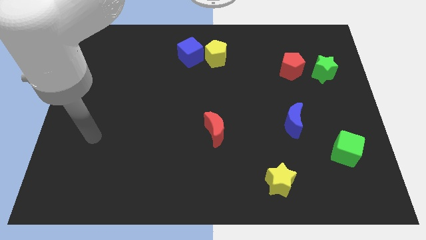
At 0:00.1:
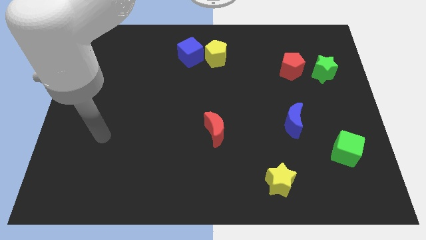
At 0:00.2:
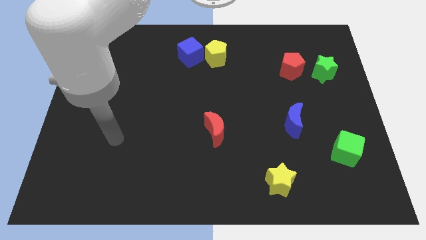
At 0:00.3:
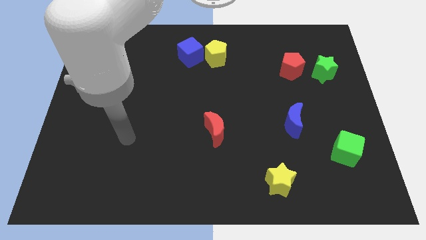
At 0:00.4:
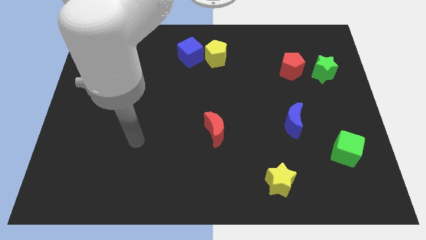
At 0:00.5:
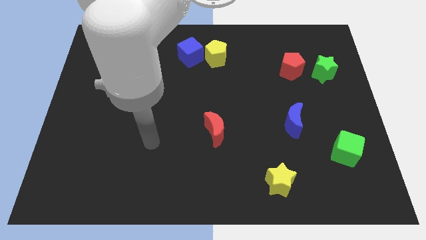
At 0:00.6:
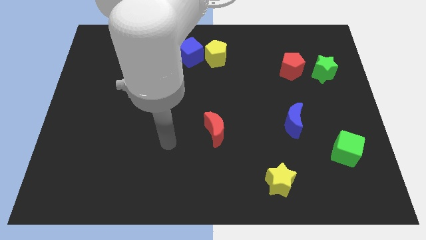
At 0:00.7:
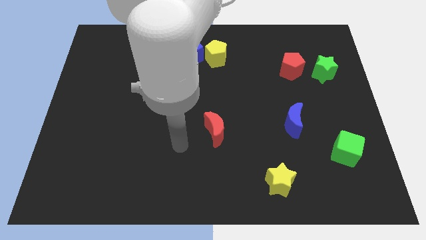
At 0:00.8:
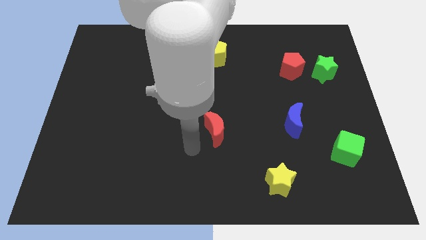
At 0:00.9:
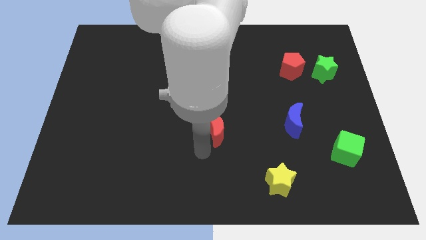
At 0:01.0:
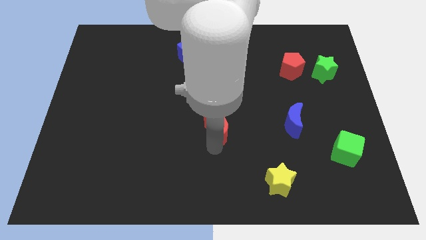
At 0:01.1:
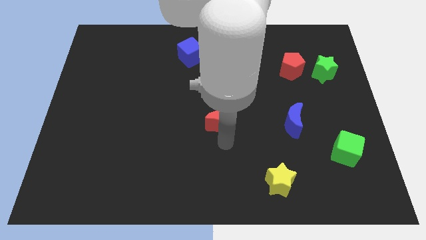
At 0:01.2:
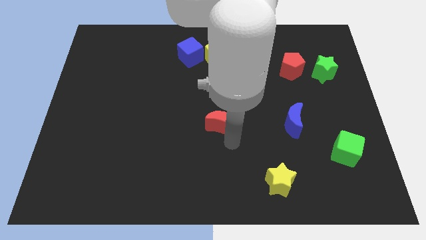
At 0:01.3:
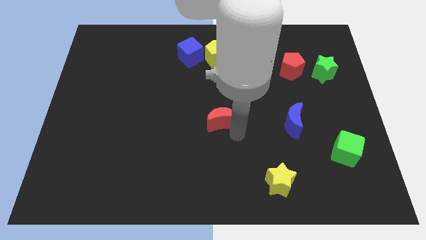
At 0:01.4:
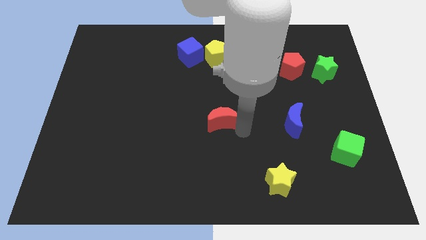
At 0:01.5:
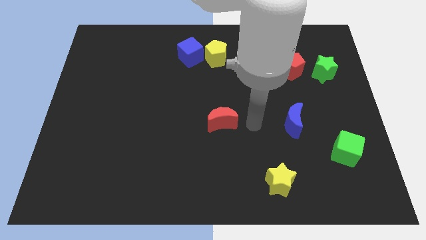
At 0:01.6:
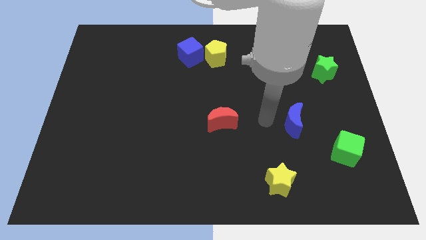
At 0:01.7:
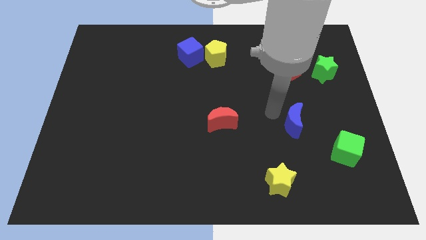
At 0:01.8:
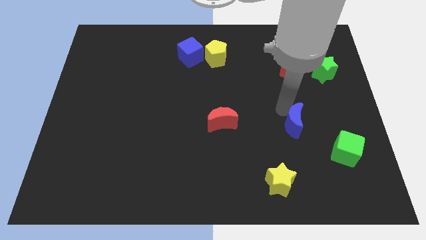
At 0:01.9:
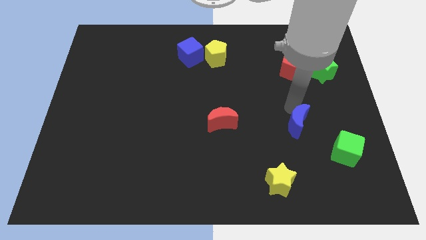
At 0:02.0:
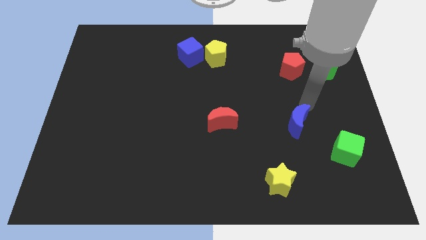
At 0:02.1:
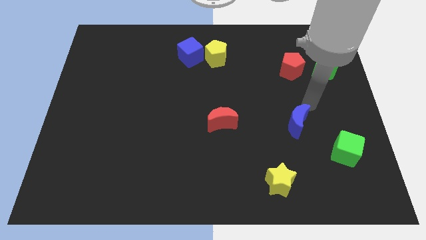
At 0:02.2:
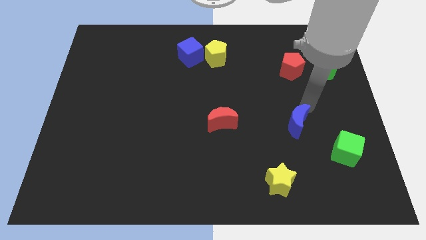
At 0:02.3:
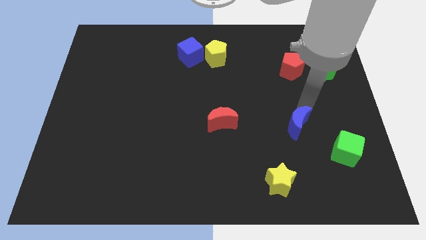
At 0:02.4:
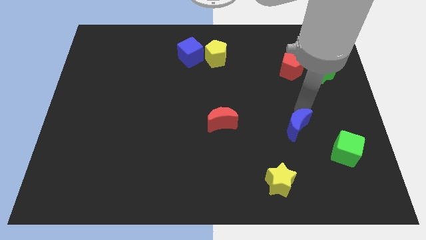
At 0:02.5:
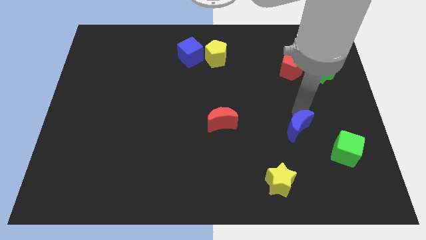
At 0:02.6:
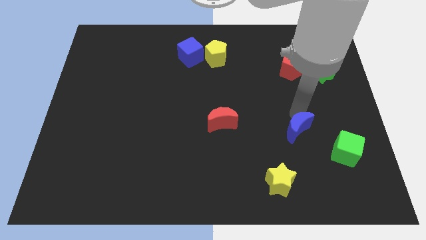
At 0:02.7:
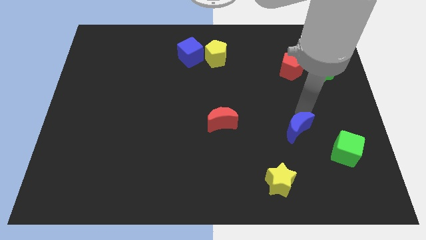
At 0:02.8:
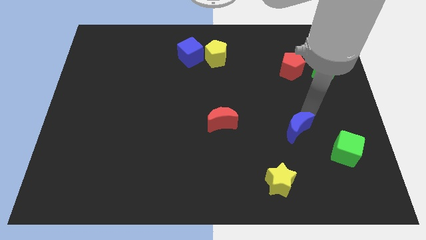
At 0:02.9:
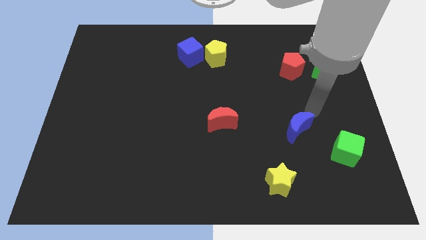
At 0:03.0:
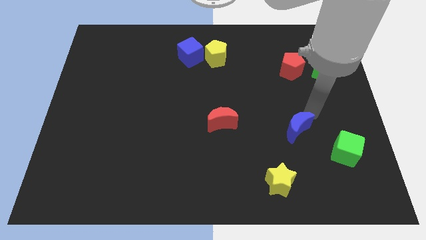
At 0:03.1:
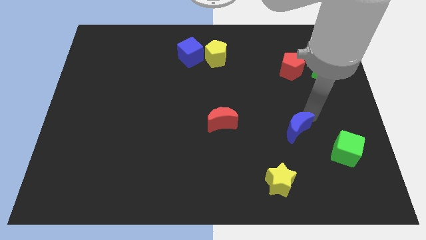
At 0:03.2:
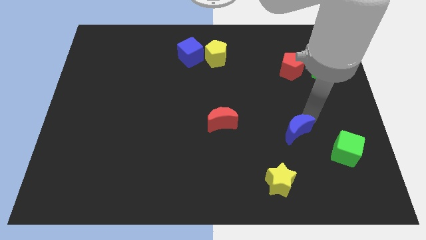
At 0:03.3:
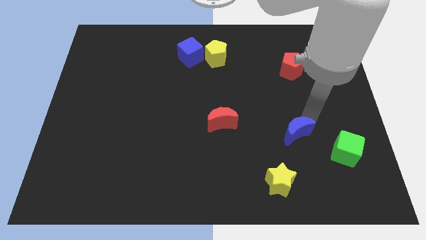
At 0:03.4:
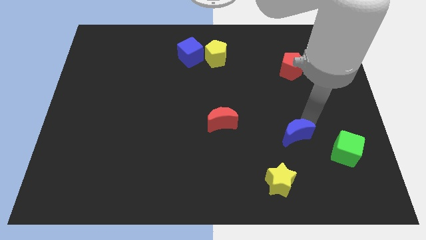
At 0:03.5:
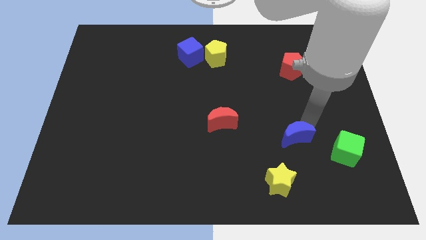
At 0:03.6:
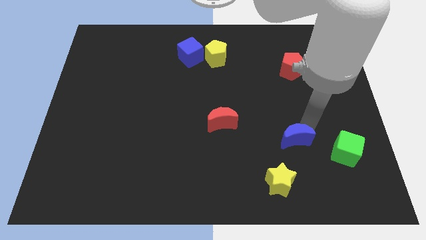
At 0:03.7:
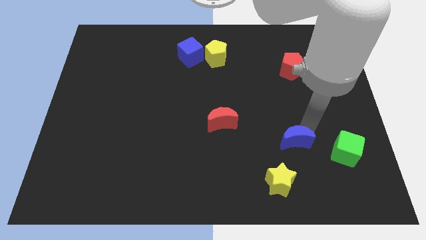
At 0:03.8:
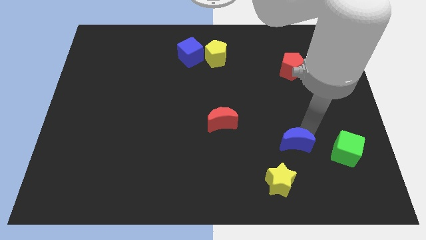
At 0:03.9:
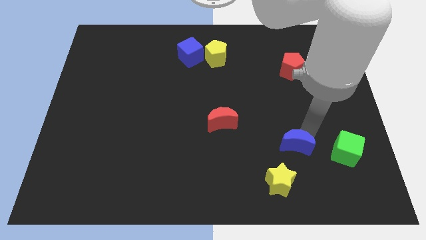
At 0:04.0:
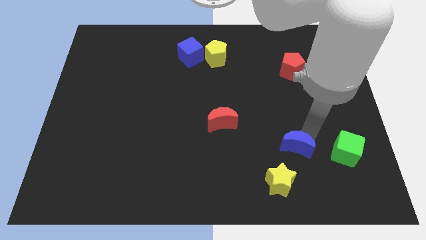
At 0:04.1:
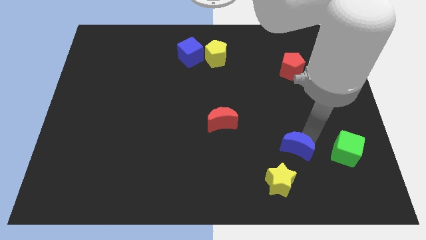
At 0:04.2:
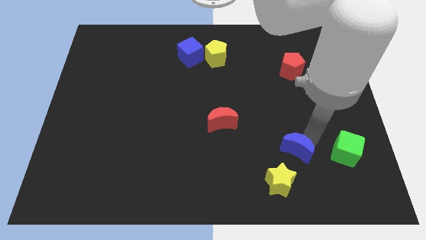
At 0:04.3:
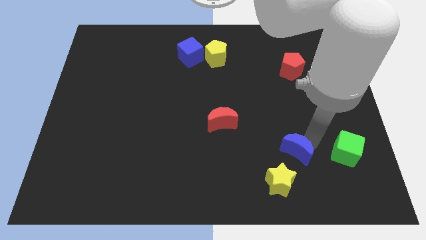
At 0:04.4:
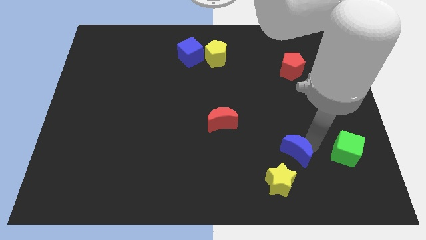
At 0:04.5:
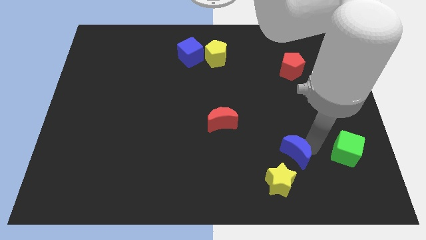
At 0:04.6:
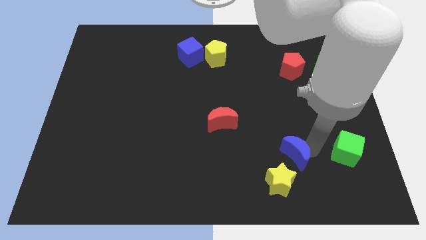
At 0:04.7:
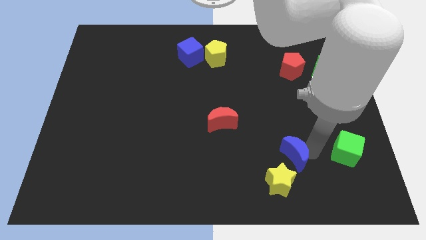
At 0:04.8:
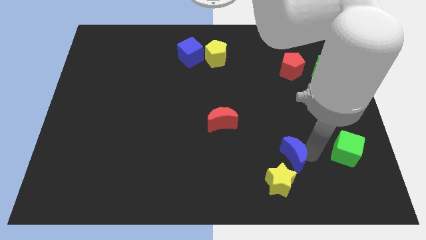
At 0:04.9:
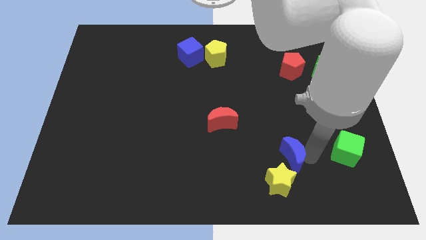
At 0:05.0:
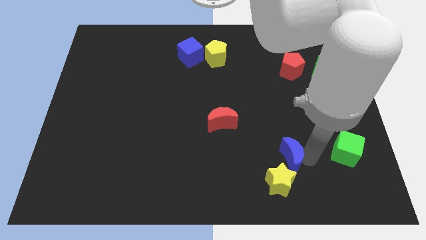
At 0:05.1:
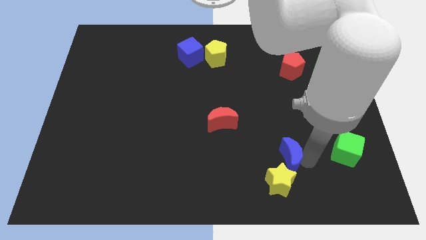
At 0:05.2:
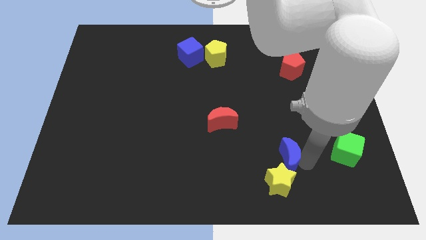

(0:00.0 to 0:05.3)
push the blue moon a bit diagonally down and to the left

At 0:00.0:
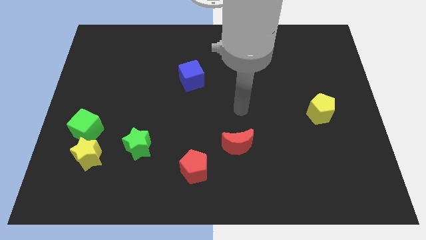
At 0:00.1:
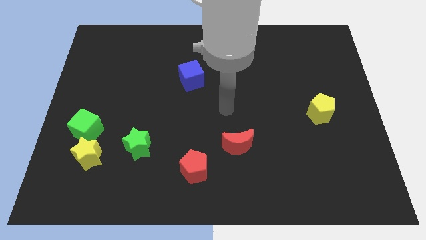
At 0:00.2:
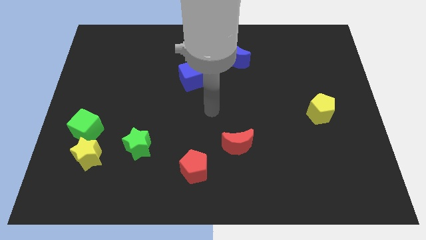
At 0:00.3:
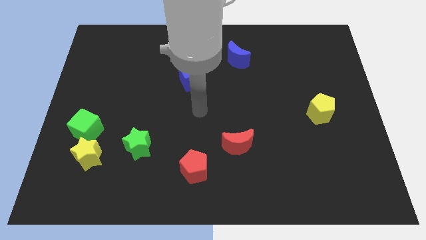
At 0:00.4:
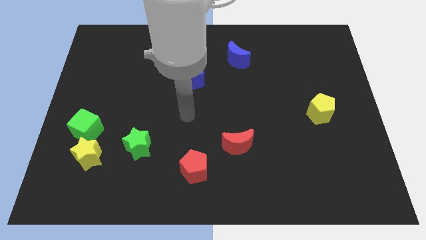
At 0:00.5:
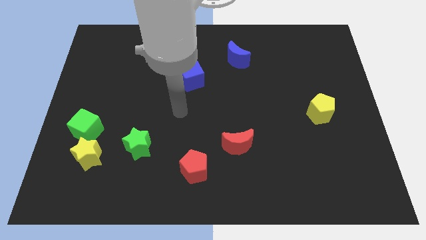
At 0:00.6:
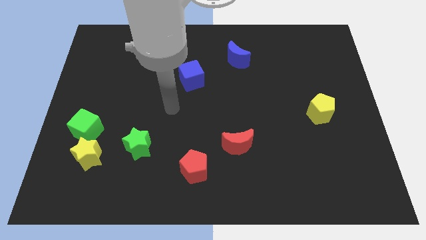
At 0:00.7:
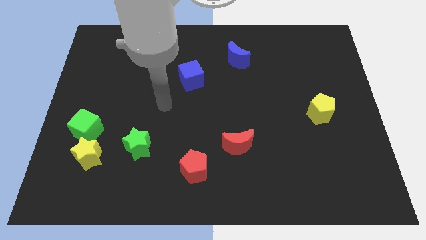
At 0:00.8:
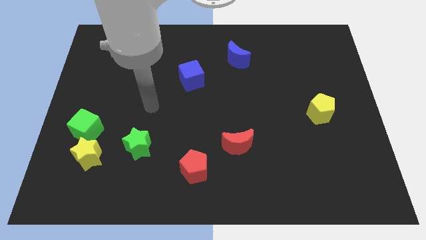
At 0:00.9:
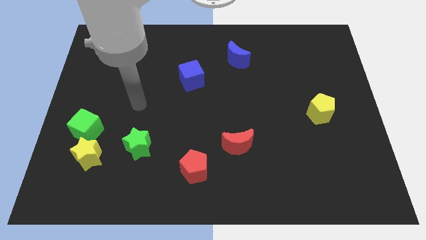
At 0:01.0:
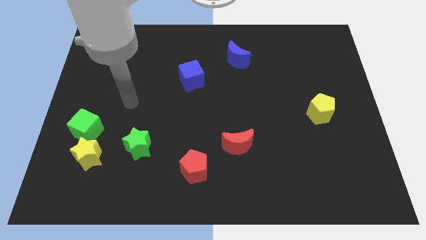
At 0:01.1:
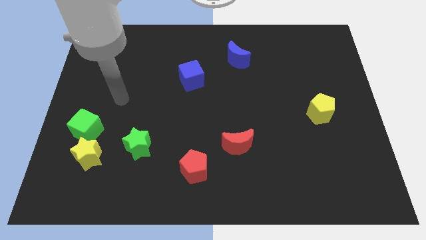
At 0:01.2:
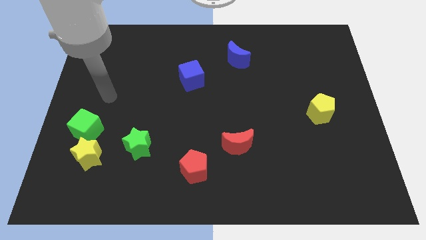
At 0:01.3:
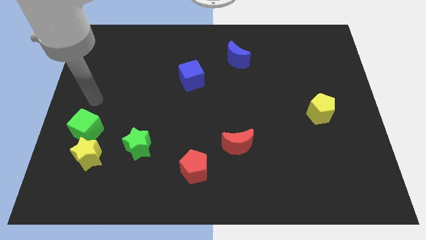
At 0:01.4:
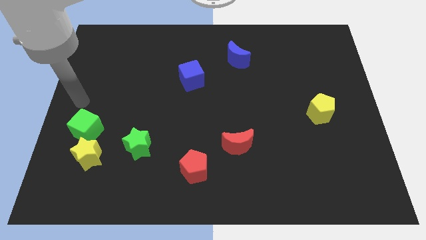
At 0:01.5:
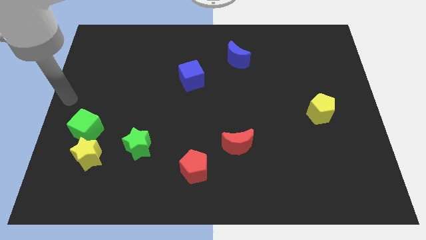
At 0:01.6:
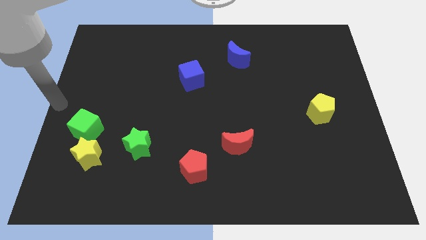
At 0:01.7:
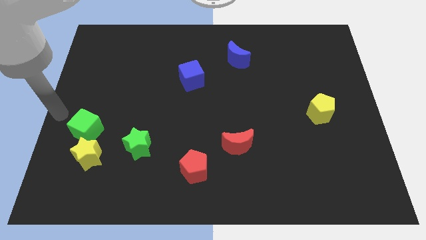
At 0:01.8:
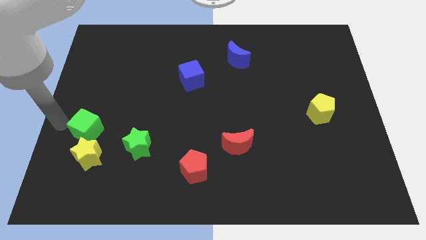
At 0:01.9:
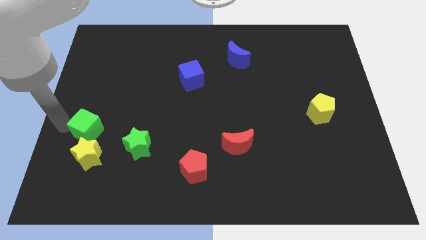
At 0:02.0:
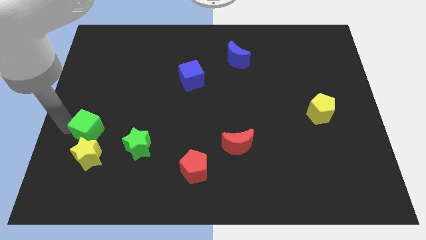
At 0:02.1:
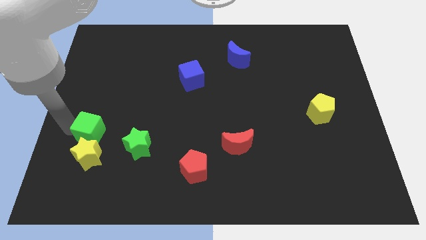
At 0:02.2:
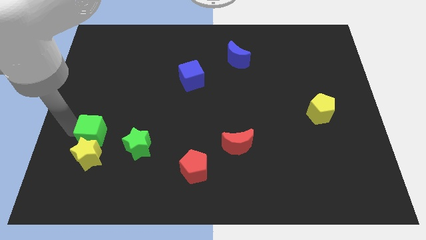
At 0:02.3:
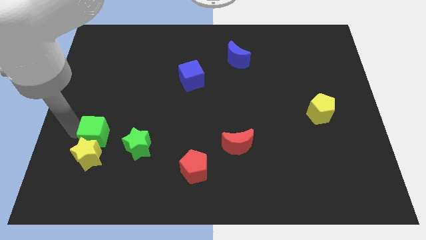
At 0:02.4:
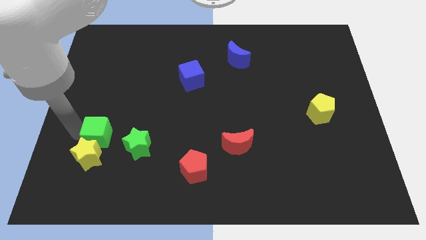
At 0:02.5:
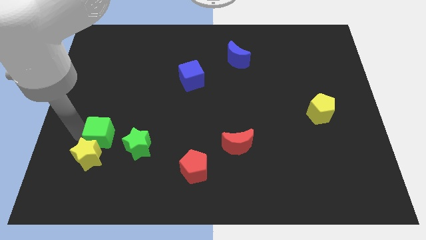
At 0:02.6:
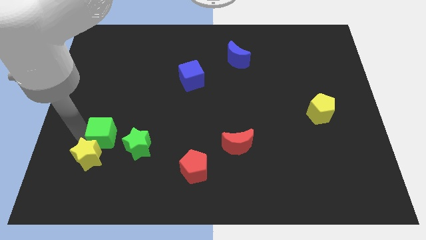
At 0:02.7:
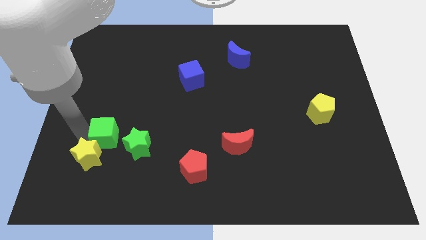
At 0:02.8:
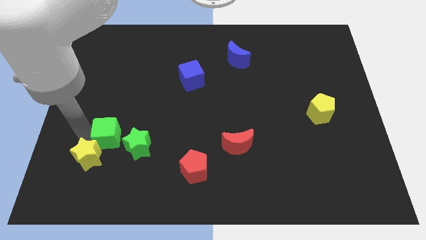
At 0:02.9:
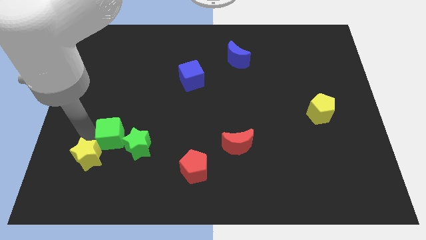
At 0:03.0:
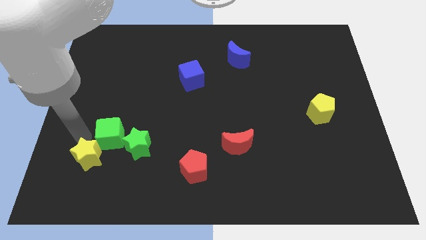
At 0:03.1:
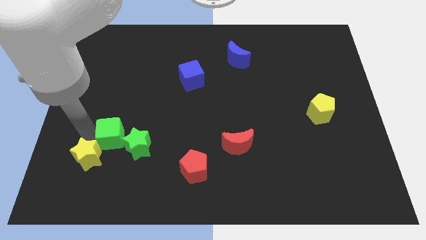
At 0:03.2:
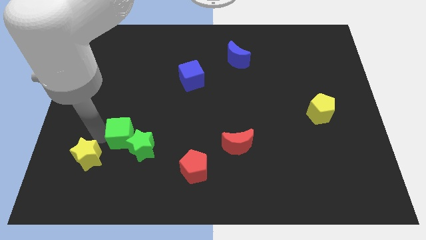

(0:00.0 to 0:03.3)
slightly slide the green cube to the right

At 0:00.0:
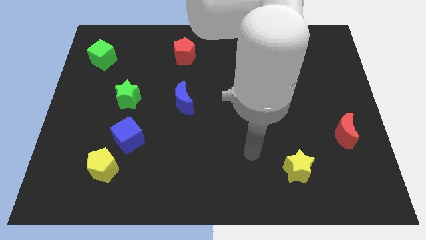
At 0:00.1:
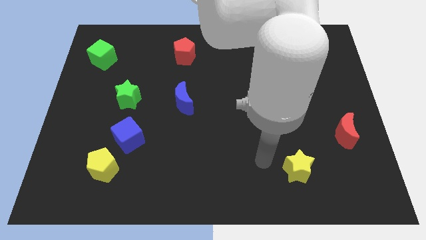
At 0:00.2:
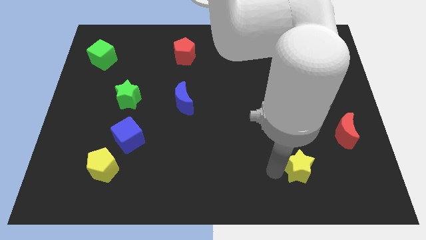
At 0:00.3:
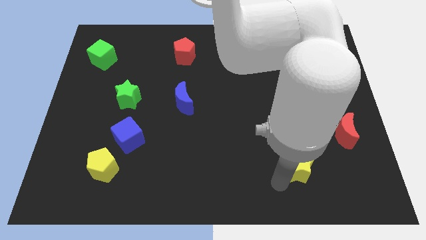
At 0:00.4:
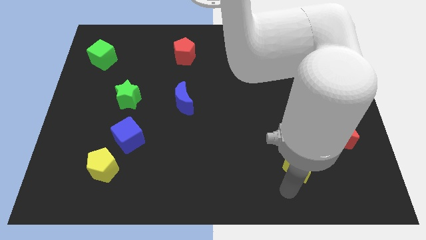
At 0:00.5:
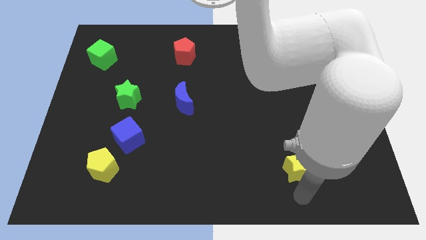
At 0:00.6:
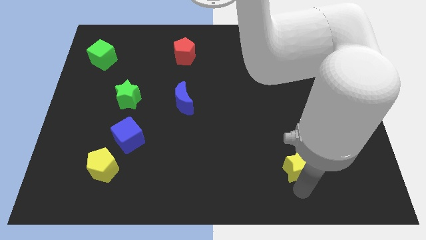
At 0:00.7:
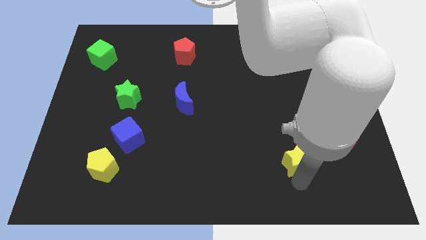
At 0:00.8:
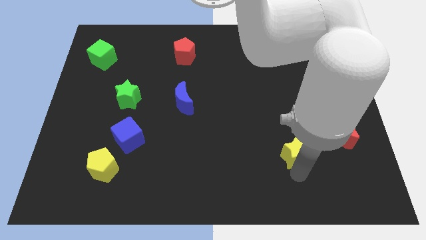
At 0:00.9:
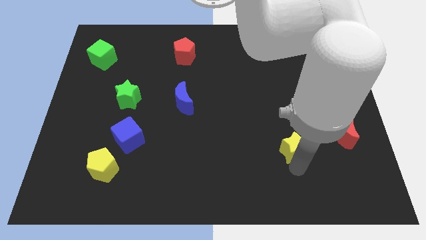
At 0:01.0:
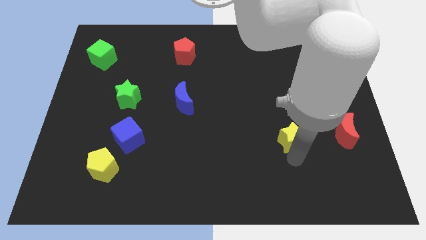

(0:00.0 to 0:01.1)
slightly push the yellow star up
